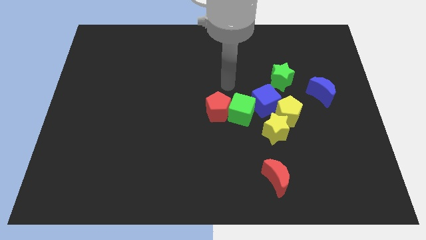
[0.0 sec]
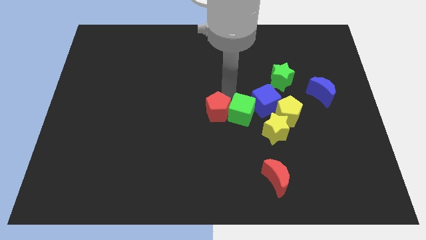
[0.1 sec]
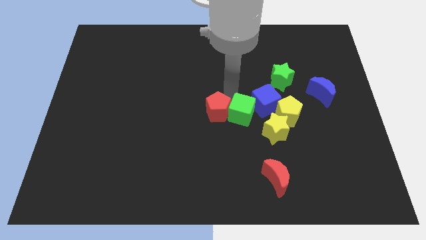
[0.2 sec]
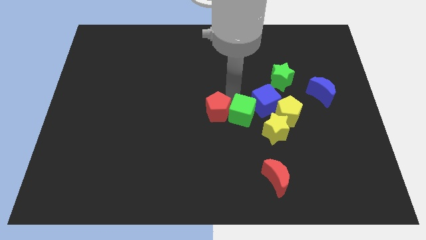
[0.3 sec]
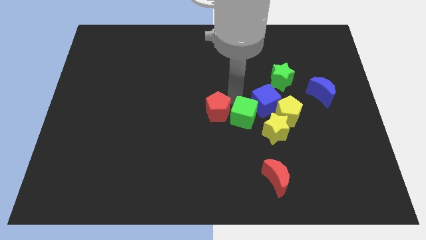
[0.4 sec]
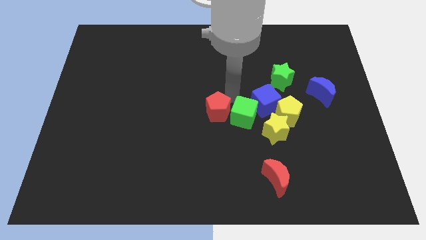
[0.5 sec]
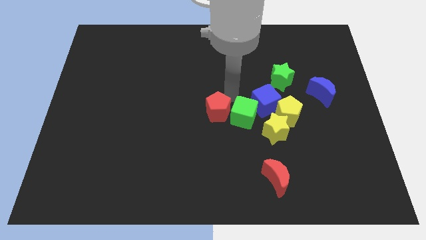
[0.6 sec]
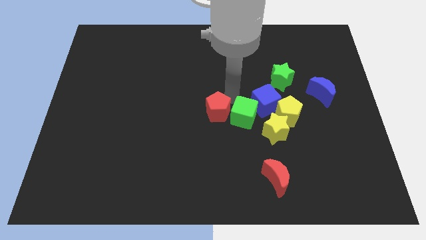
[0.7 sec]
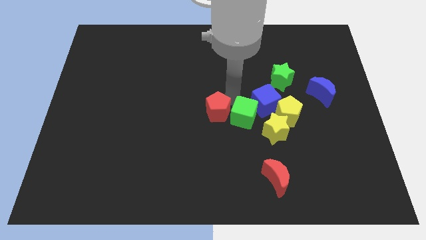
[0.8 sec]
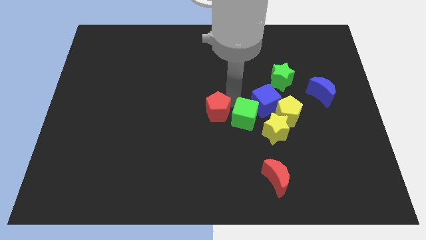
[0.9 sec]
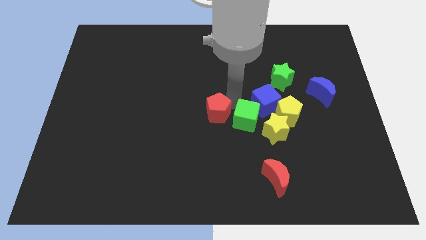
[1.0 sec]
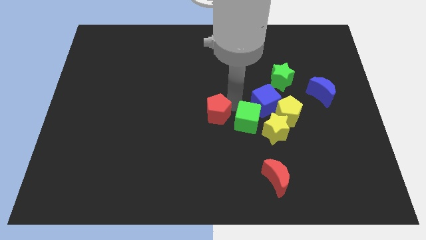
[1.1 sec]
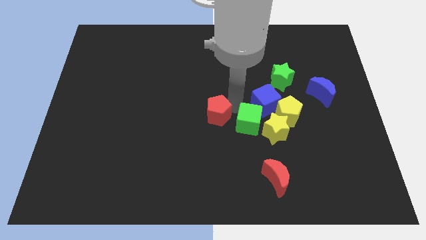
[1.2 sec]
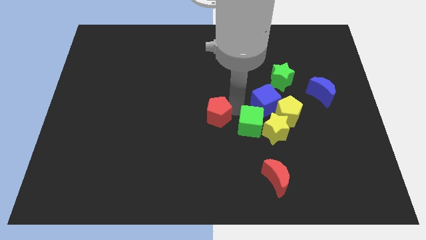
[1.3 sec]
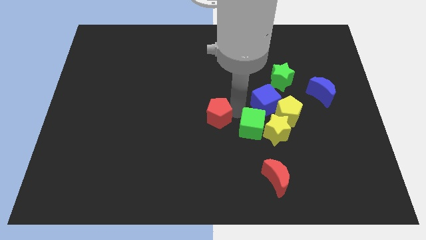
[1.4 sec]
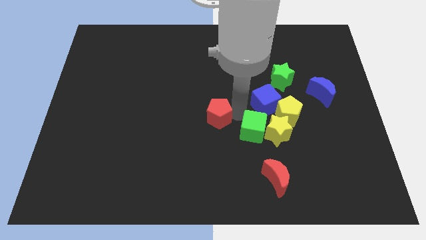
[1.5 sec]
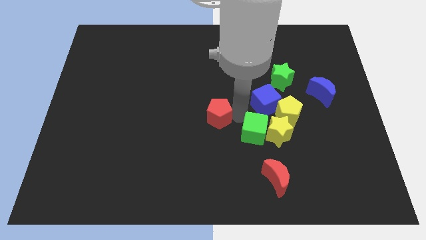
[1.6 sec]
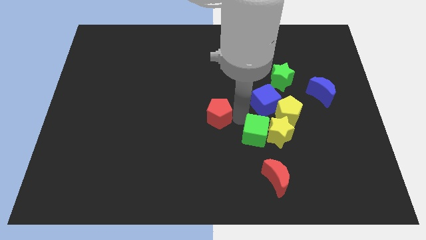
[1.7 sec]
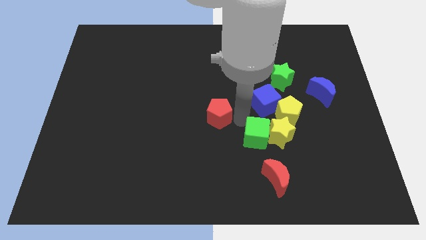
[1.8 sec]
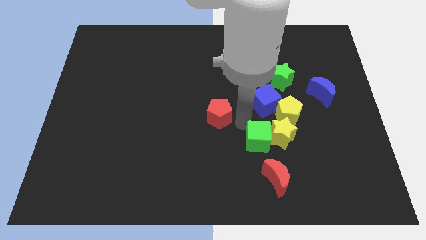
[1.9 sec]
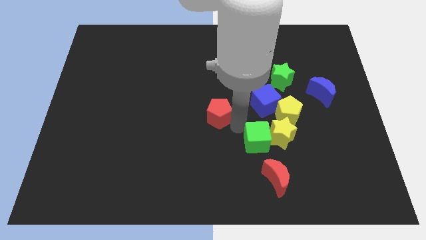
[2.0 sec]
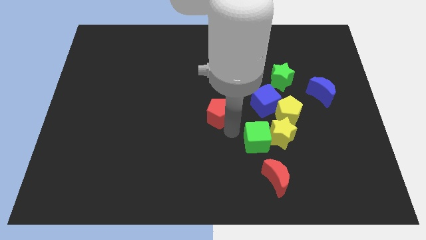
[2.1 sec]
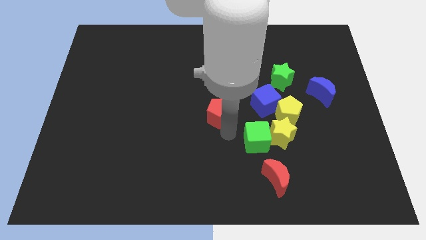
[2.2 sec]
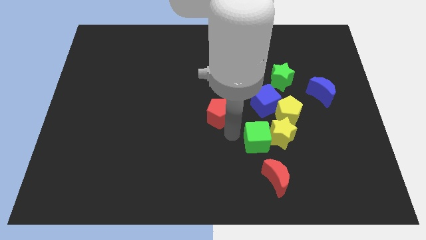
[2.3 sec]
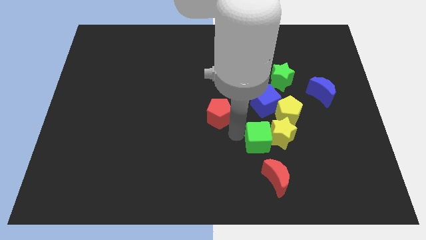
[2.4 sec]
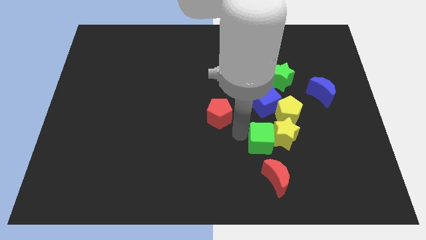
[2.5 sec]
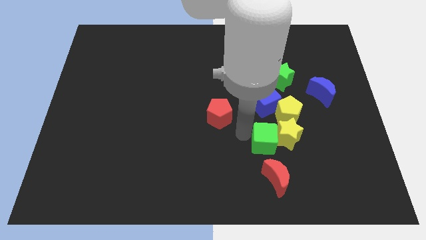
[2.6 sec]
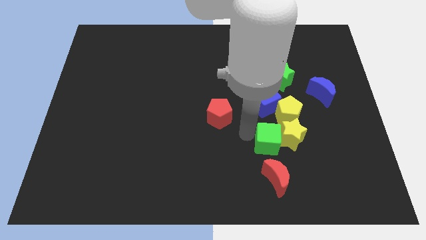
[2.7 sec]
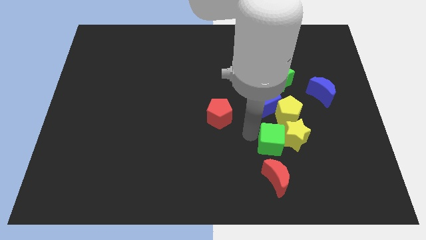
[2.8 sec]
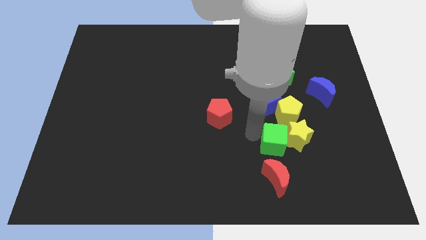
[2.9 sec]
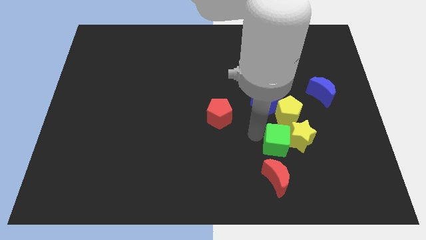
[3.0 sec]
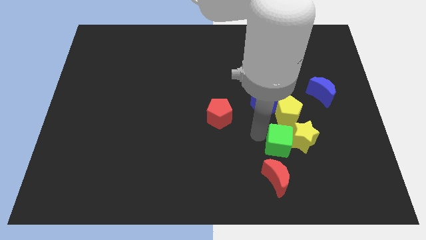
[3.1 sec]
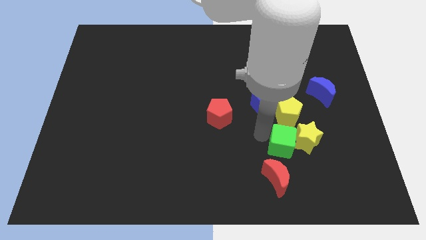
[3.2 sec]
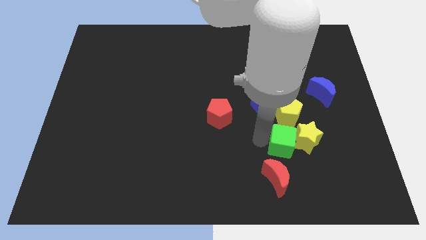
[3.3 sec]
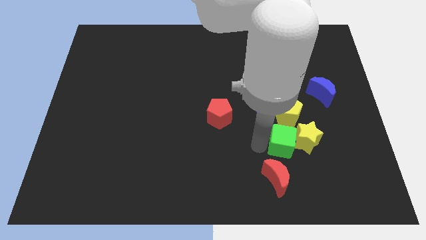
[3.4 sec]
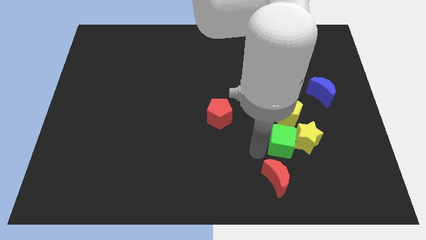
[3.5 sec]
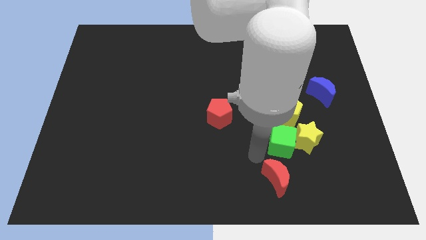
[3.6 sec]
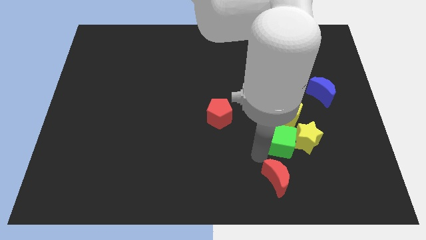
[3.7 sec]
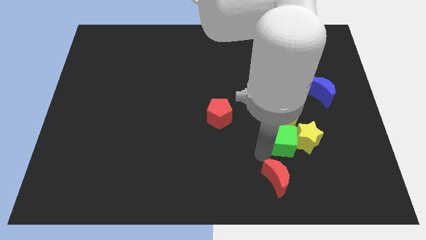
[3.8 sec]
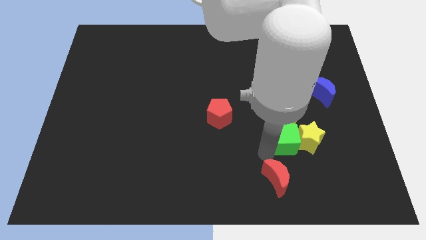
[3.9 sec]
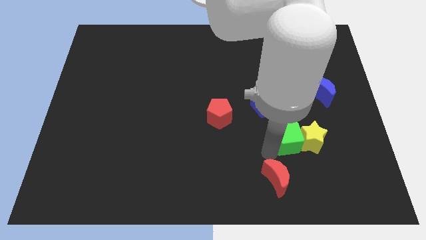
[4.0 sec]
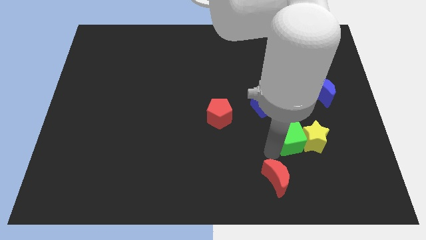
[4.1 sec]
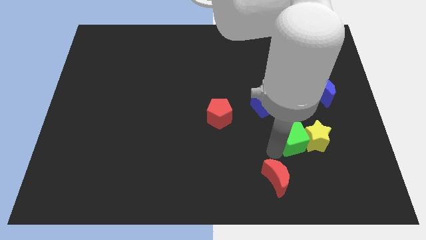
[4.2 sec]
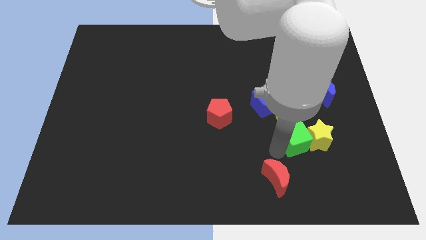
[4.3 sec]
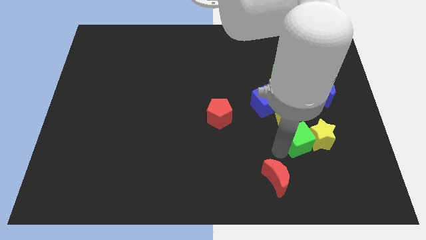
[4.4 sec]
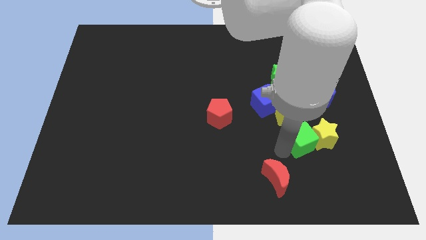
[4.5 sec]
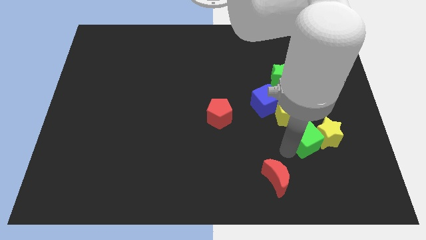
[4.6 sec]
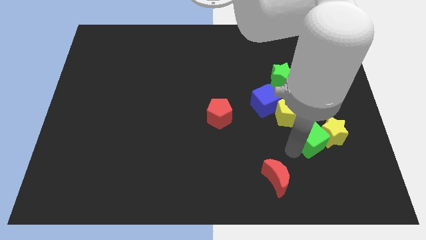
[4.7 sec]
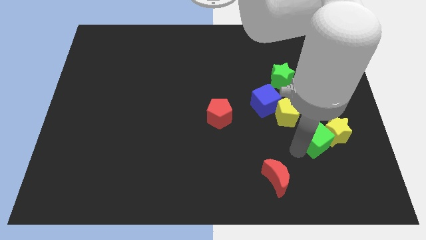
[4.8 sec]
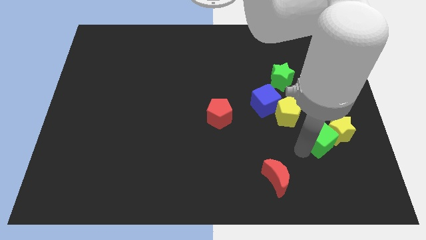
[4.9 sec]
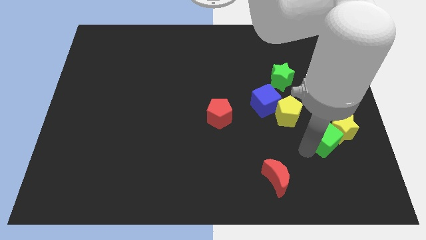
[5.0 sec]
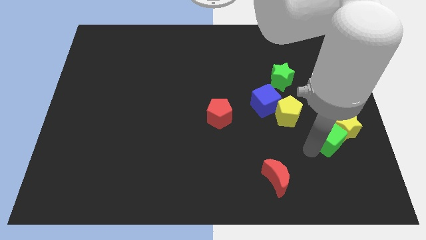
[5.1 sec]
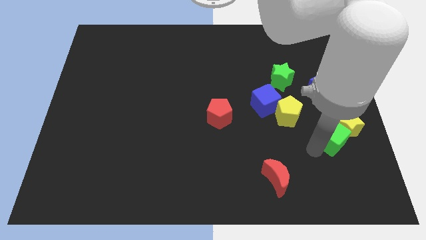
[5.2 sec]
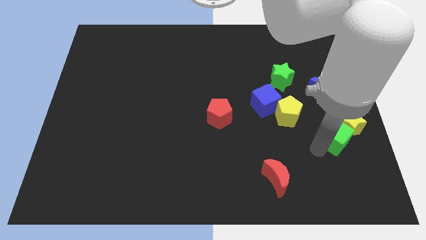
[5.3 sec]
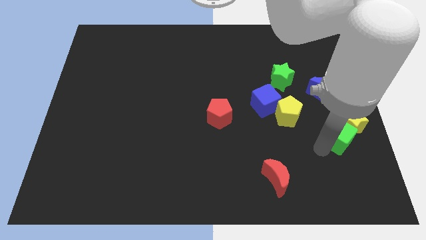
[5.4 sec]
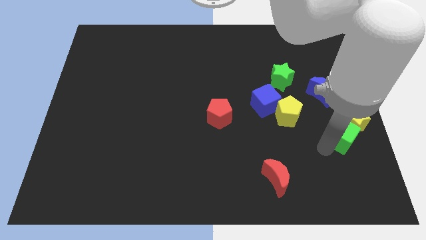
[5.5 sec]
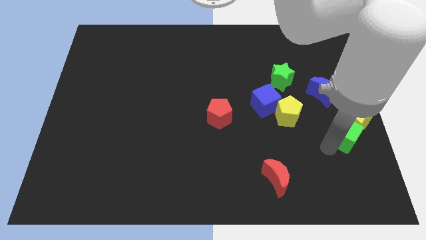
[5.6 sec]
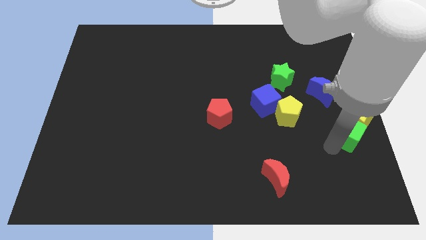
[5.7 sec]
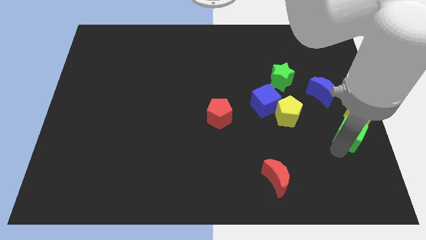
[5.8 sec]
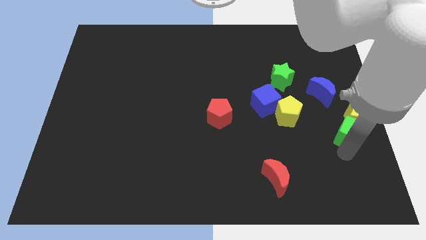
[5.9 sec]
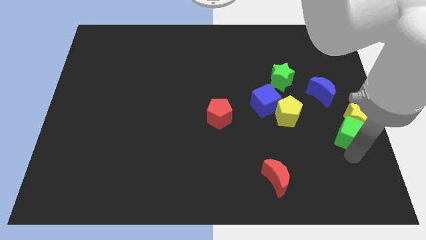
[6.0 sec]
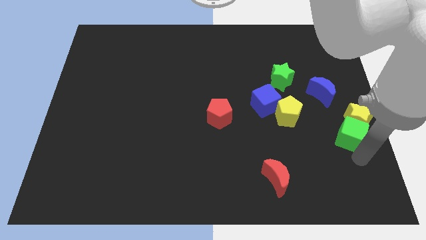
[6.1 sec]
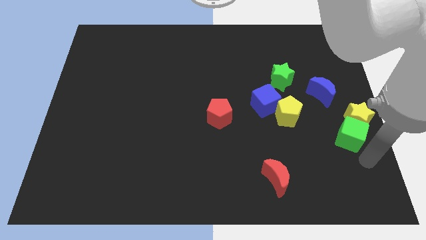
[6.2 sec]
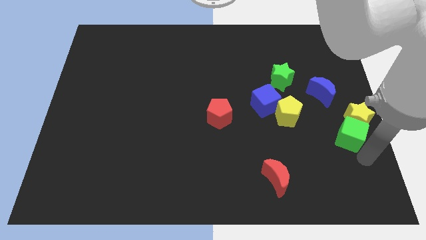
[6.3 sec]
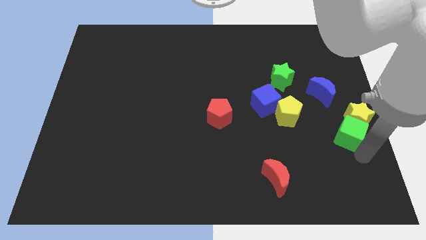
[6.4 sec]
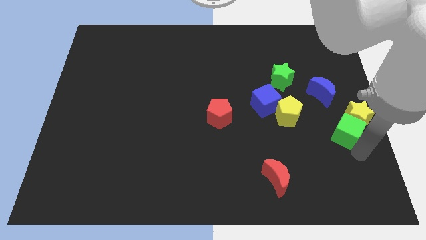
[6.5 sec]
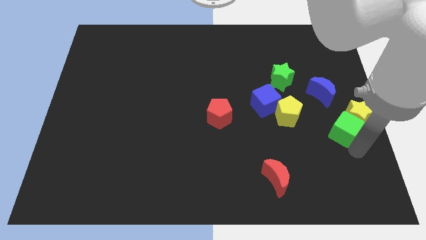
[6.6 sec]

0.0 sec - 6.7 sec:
push the green cube to the right of the yellow pentagon
